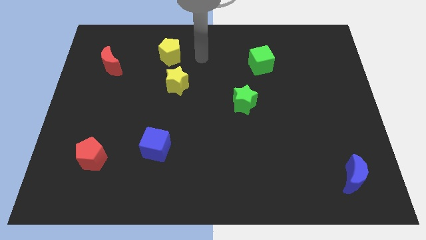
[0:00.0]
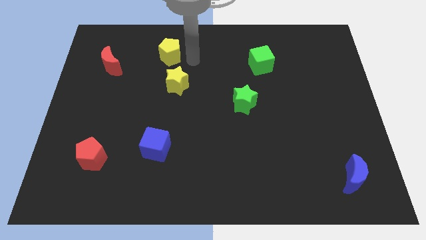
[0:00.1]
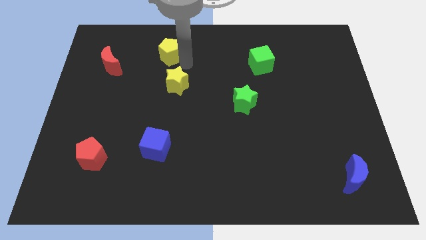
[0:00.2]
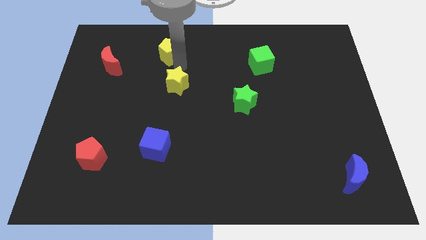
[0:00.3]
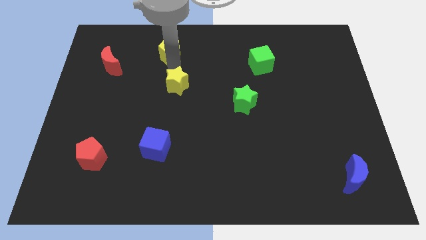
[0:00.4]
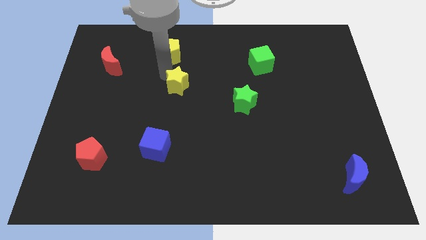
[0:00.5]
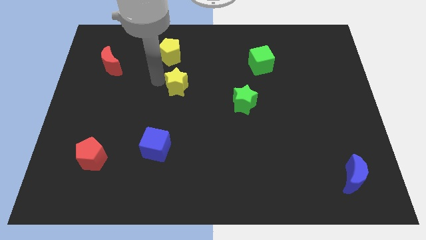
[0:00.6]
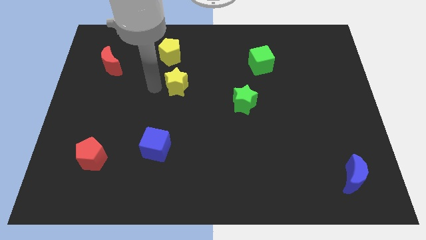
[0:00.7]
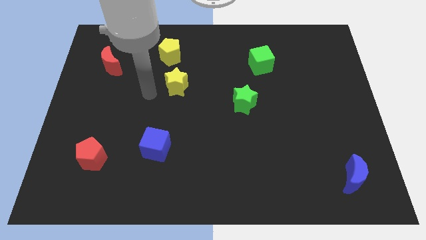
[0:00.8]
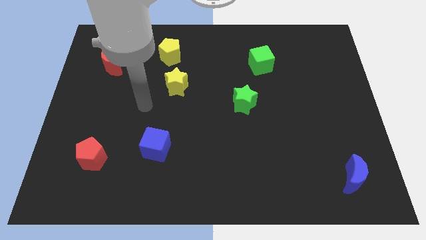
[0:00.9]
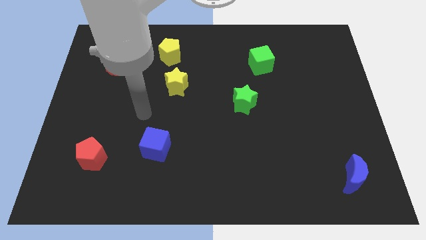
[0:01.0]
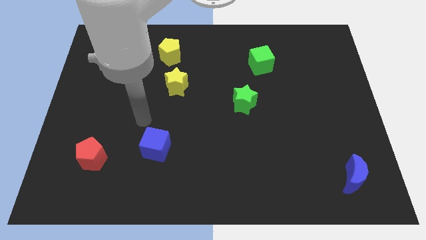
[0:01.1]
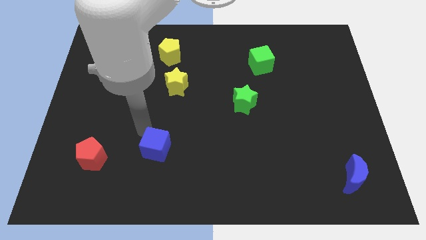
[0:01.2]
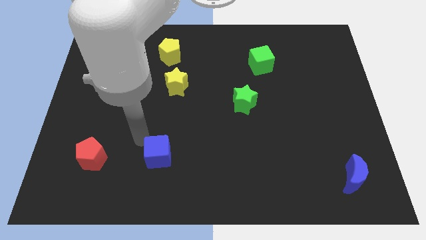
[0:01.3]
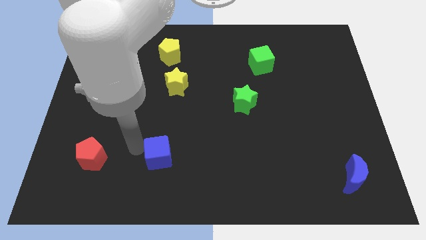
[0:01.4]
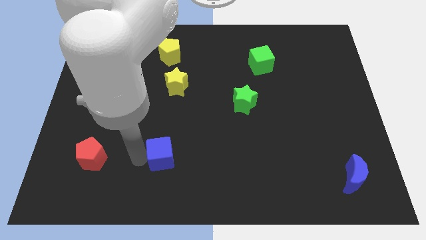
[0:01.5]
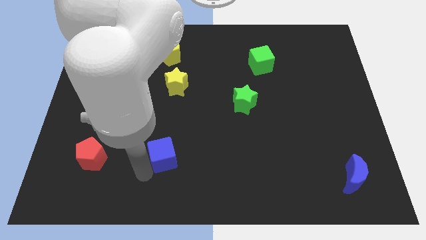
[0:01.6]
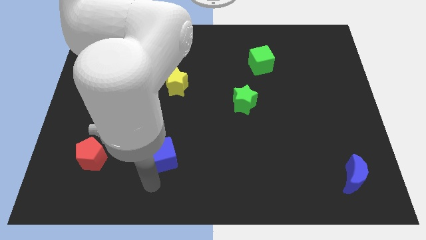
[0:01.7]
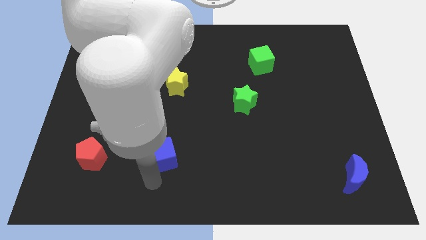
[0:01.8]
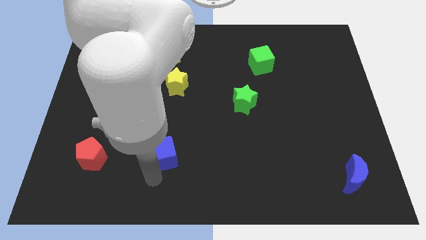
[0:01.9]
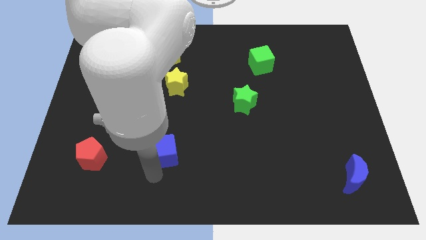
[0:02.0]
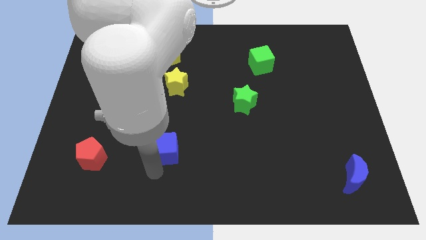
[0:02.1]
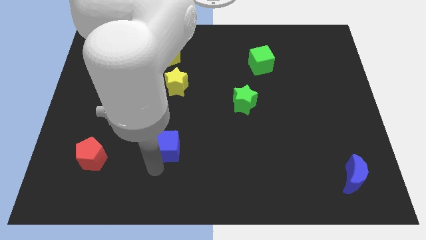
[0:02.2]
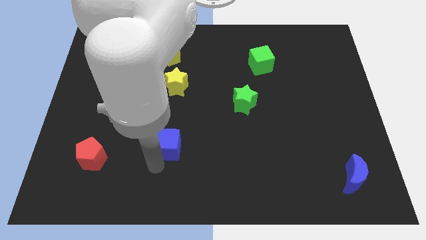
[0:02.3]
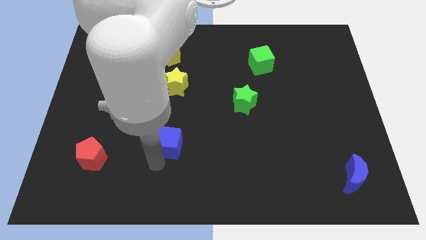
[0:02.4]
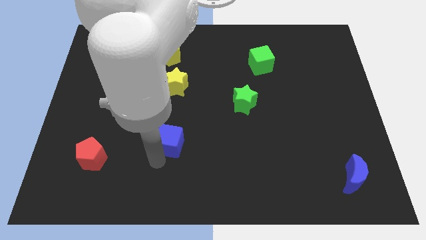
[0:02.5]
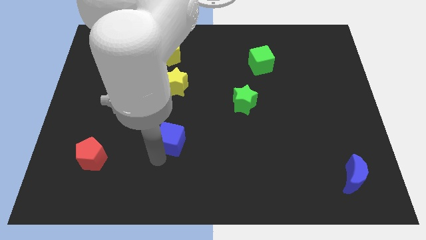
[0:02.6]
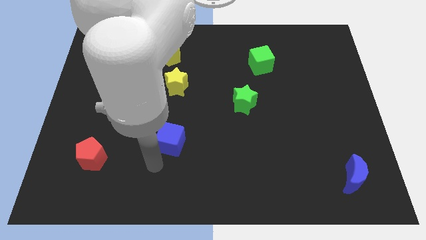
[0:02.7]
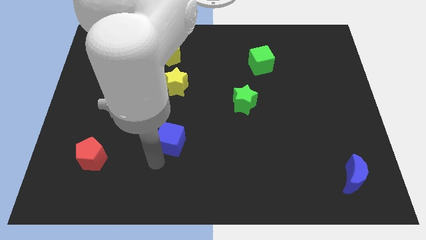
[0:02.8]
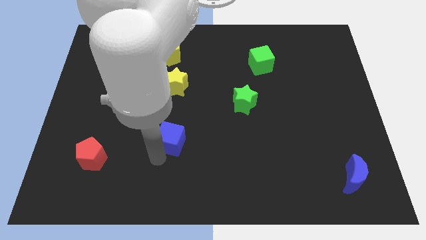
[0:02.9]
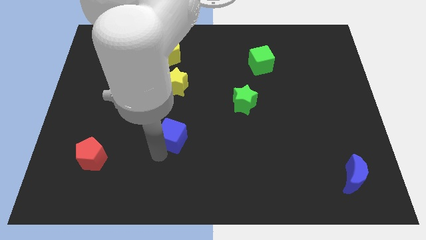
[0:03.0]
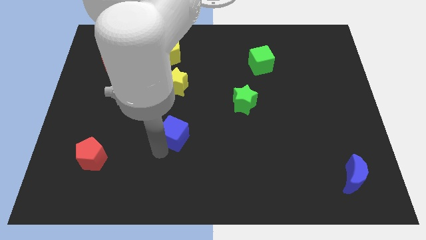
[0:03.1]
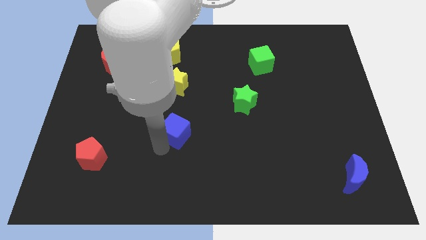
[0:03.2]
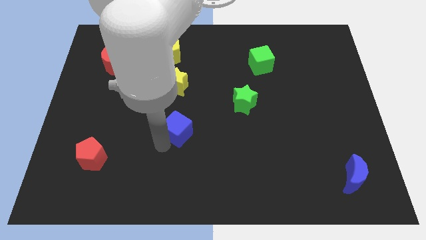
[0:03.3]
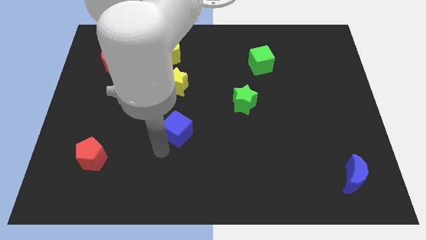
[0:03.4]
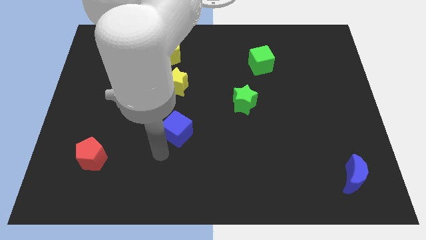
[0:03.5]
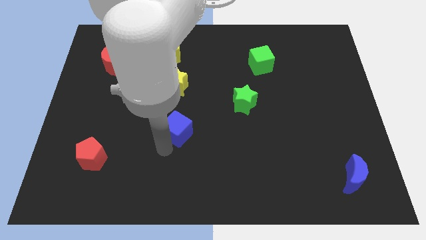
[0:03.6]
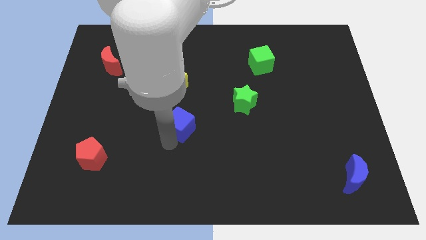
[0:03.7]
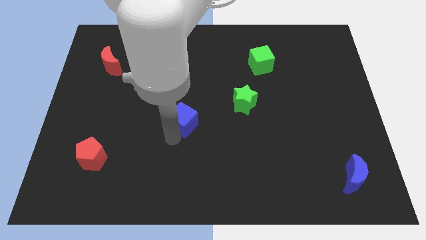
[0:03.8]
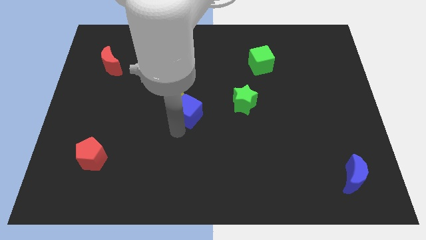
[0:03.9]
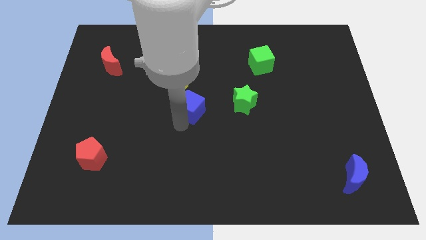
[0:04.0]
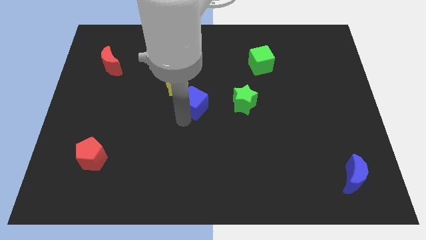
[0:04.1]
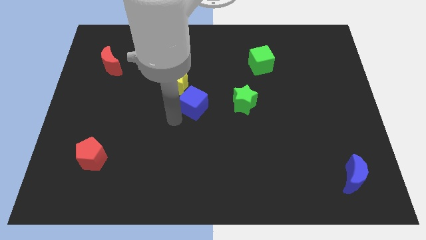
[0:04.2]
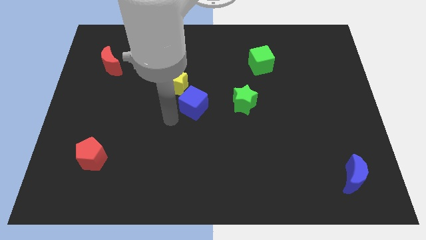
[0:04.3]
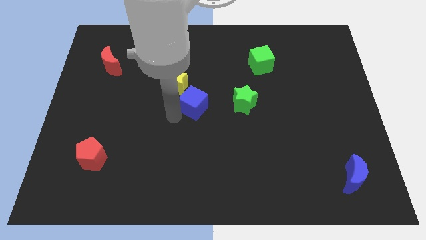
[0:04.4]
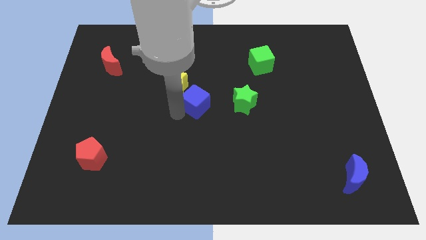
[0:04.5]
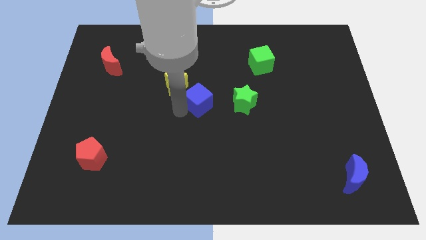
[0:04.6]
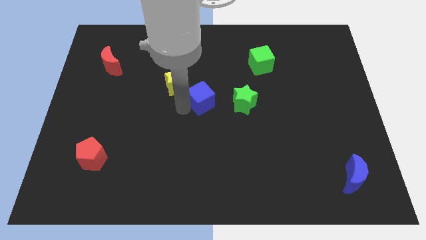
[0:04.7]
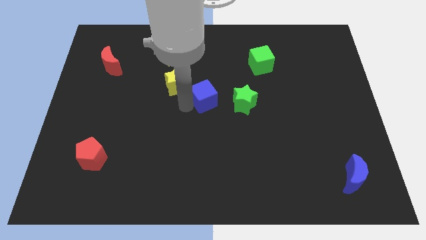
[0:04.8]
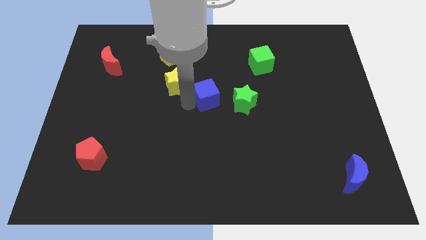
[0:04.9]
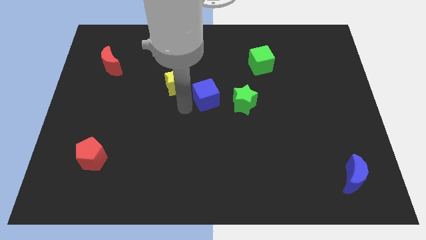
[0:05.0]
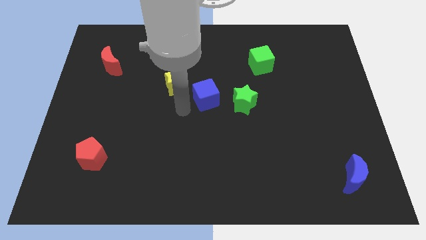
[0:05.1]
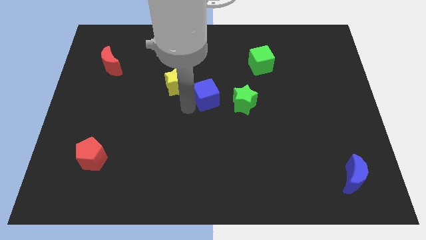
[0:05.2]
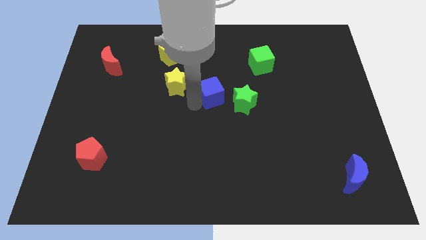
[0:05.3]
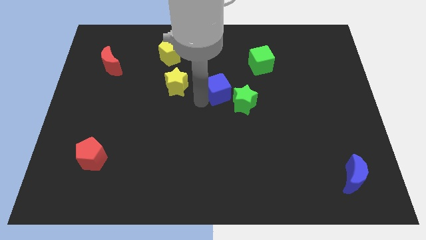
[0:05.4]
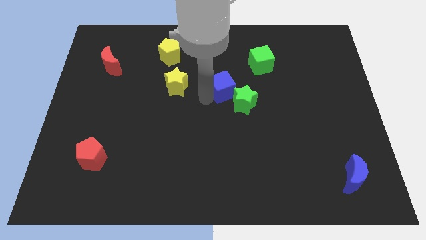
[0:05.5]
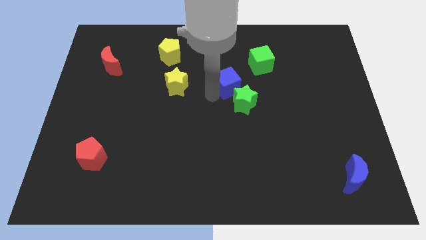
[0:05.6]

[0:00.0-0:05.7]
slide the blue cube to the bottom left of the green cube

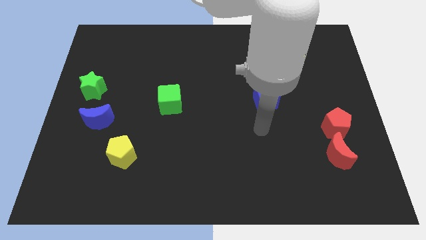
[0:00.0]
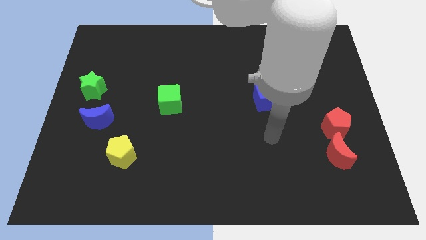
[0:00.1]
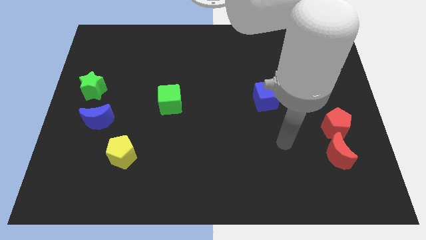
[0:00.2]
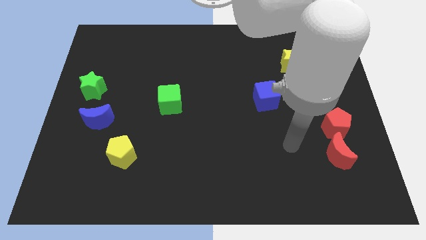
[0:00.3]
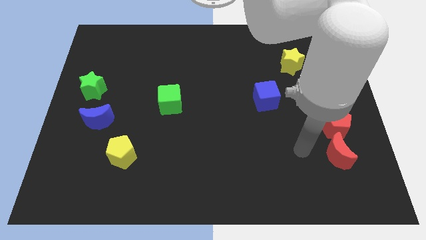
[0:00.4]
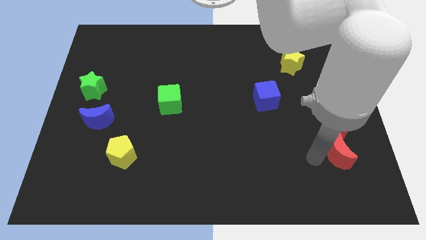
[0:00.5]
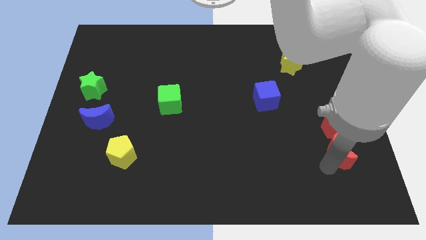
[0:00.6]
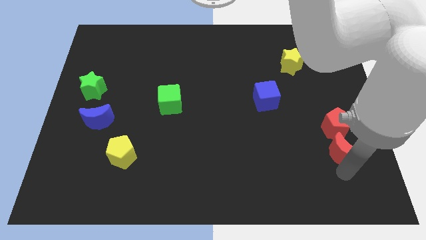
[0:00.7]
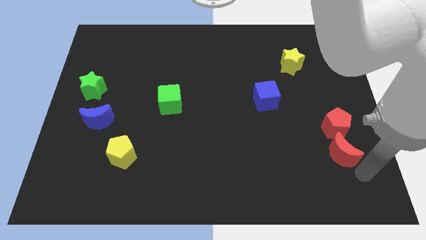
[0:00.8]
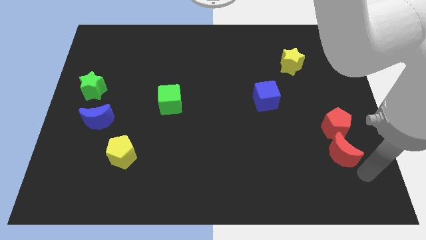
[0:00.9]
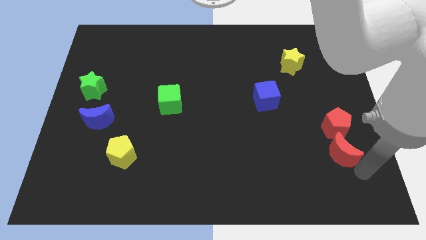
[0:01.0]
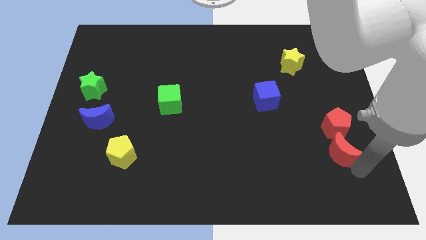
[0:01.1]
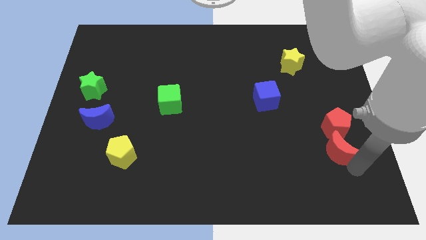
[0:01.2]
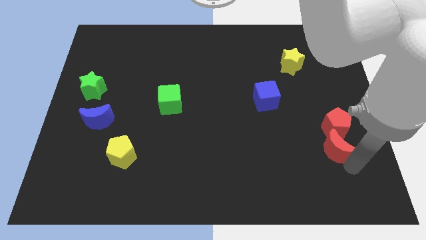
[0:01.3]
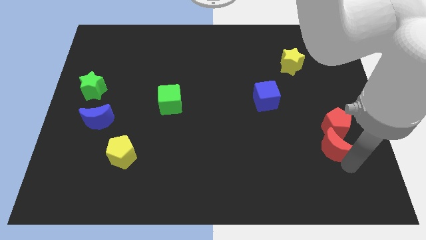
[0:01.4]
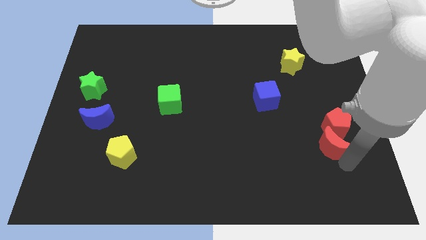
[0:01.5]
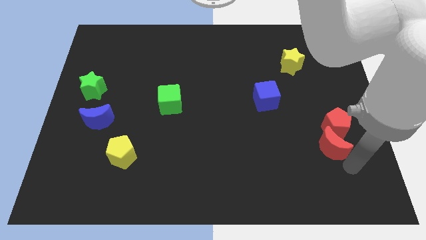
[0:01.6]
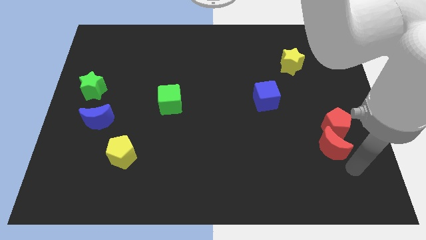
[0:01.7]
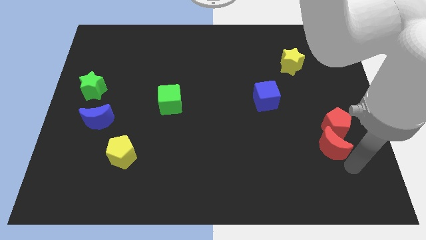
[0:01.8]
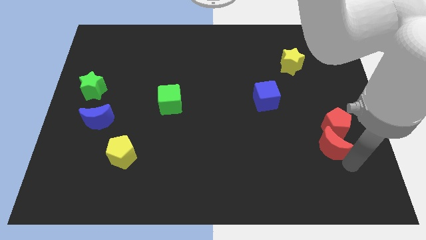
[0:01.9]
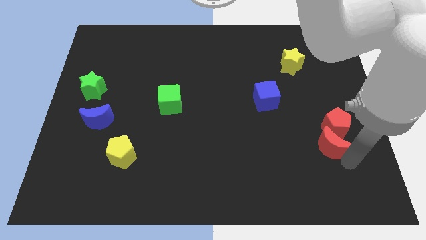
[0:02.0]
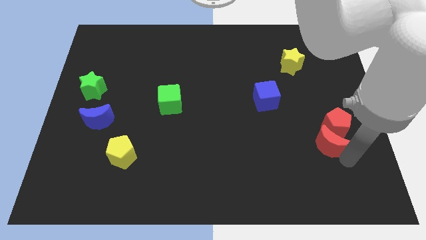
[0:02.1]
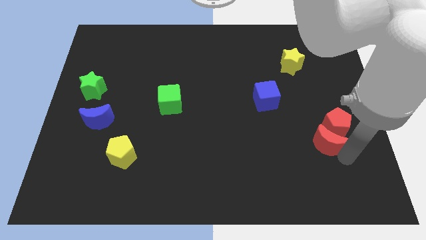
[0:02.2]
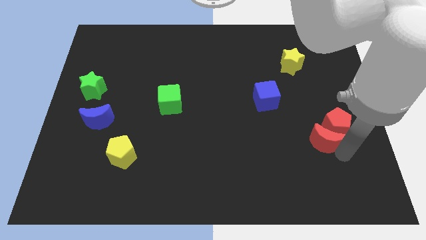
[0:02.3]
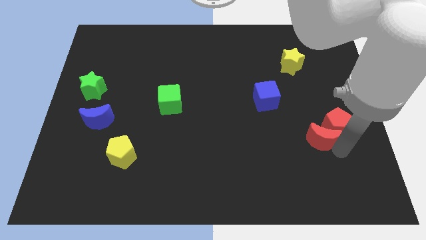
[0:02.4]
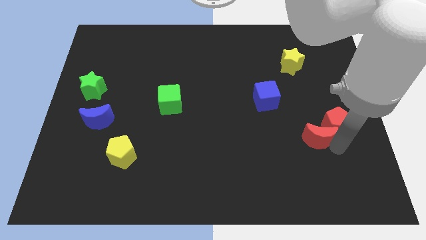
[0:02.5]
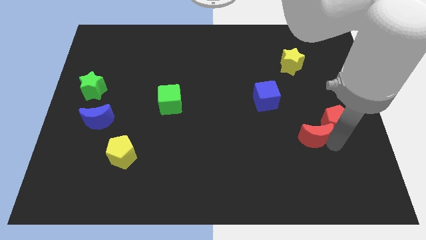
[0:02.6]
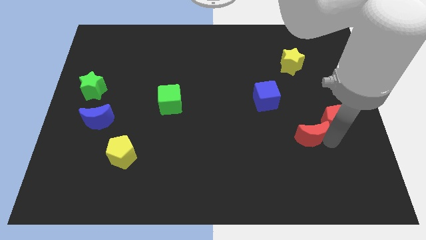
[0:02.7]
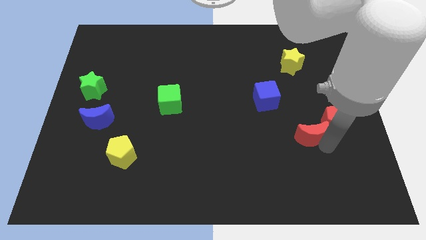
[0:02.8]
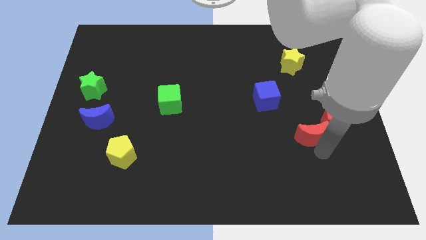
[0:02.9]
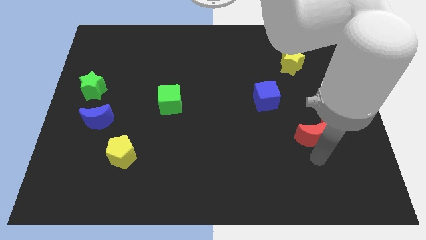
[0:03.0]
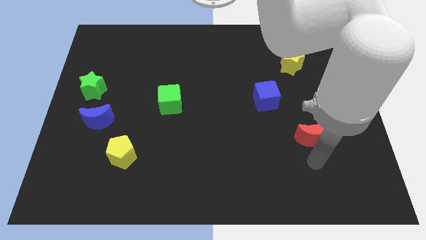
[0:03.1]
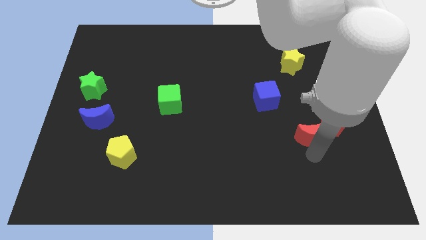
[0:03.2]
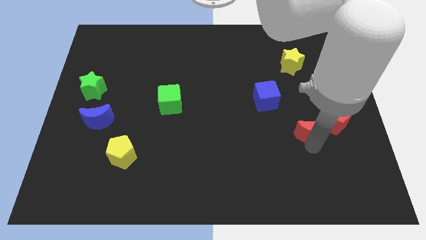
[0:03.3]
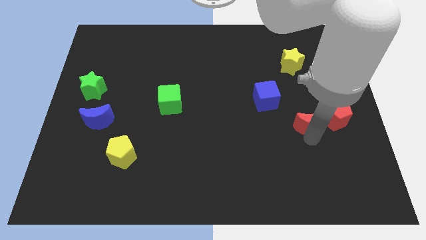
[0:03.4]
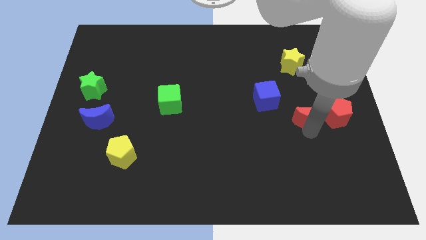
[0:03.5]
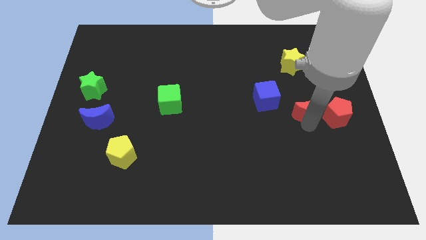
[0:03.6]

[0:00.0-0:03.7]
slide the red moon to the top left of the red pentagon
